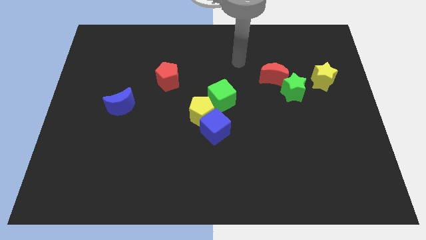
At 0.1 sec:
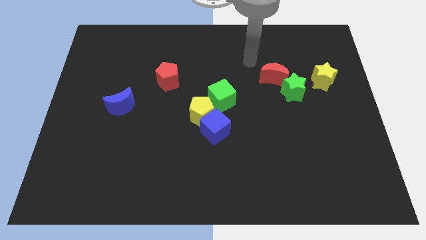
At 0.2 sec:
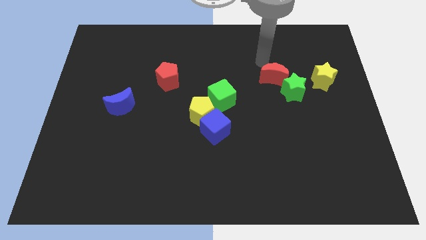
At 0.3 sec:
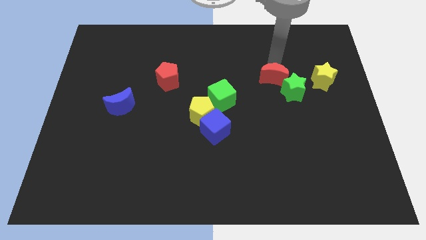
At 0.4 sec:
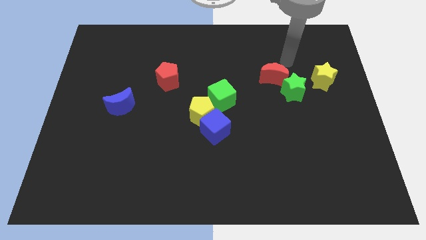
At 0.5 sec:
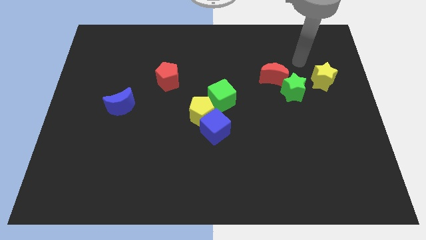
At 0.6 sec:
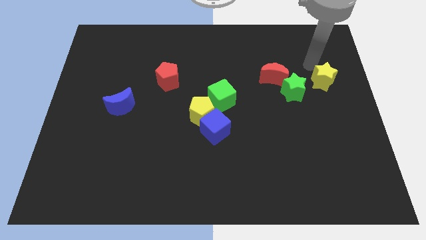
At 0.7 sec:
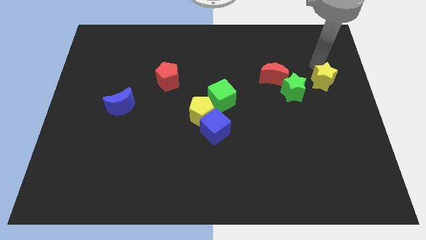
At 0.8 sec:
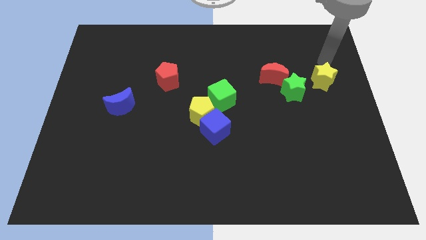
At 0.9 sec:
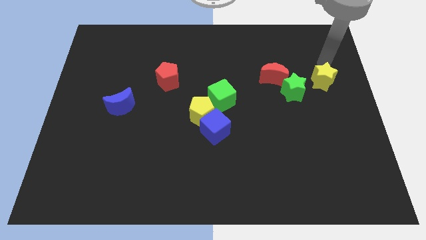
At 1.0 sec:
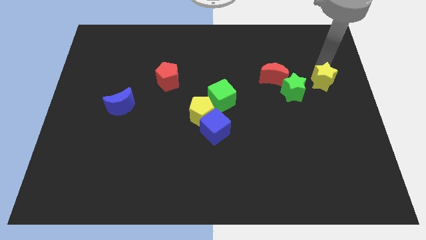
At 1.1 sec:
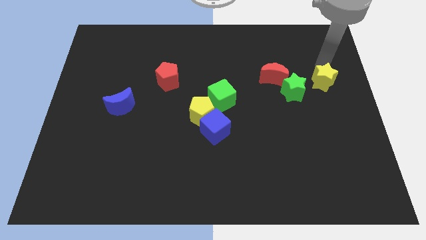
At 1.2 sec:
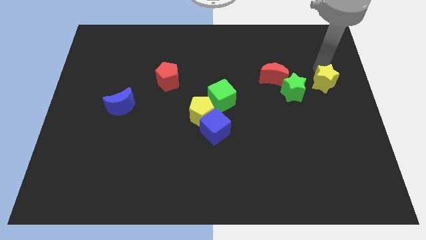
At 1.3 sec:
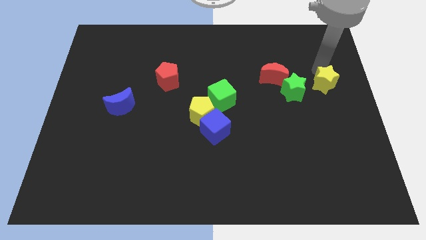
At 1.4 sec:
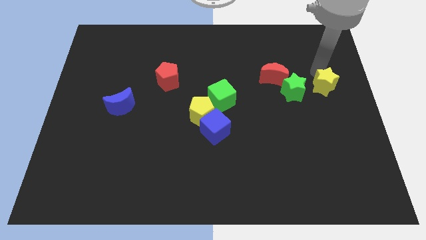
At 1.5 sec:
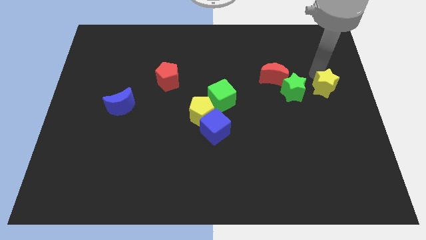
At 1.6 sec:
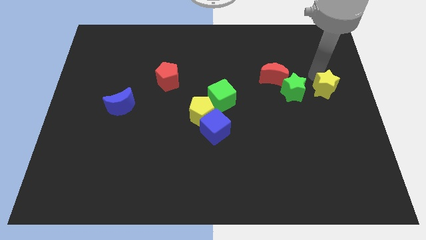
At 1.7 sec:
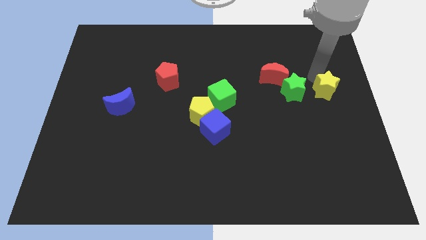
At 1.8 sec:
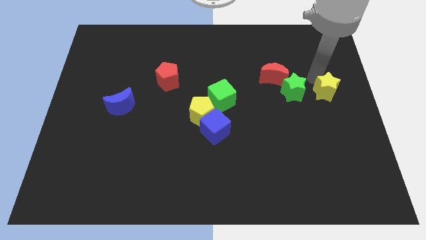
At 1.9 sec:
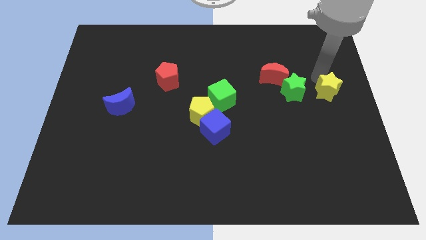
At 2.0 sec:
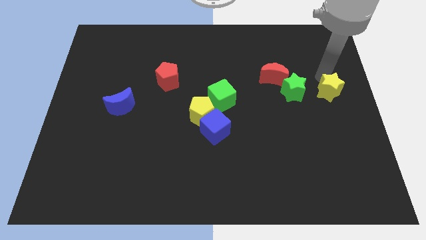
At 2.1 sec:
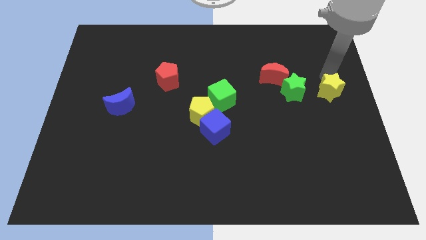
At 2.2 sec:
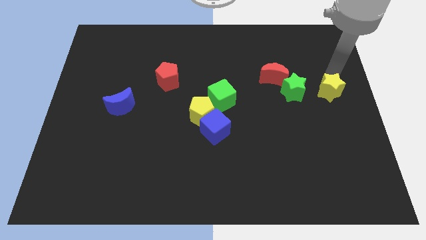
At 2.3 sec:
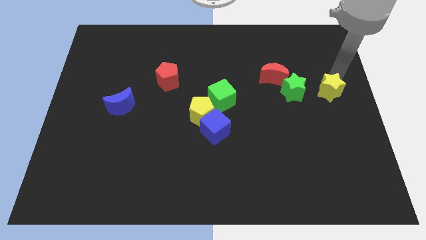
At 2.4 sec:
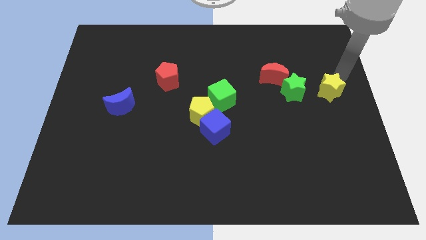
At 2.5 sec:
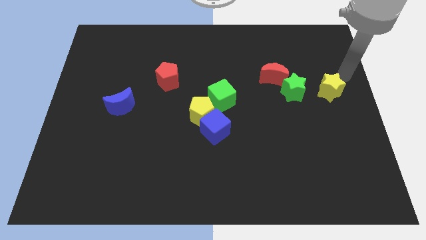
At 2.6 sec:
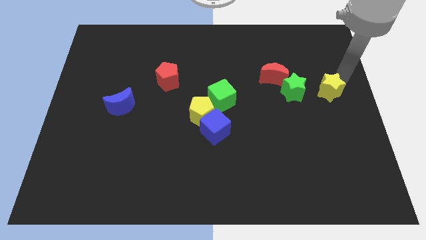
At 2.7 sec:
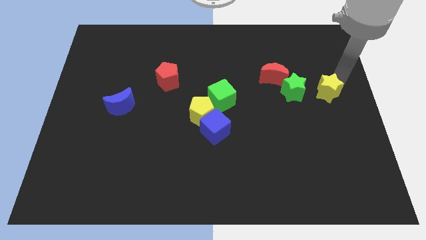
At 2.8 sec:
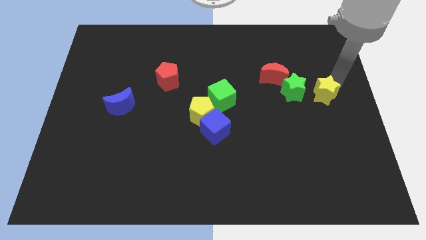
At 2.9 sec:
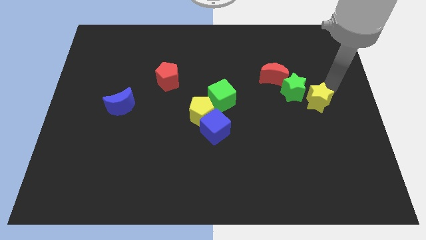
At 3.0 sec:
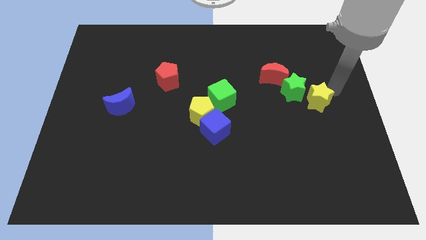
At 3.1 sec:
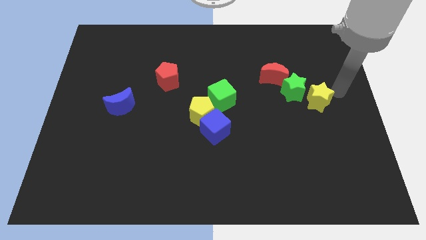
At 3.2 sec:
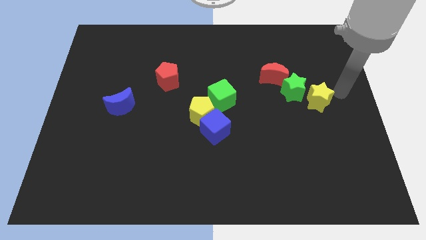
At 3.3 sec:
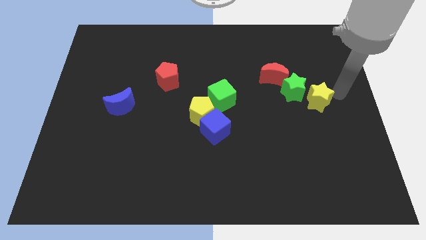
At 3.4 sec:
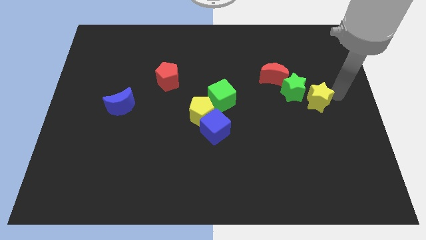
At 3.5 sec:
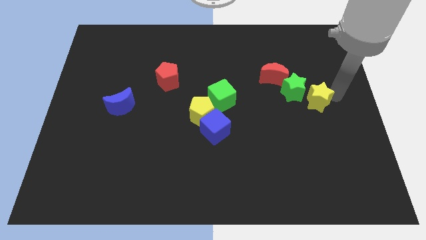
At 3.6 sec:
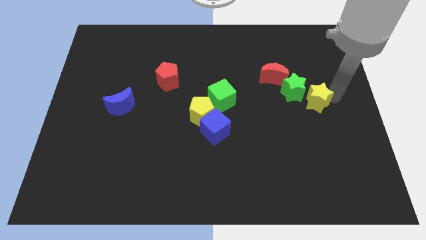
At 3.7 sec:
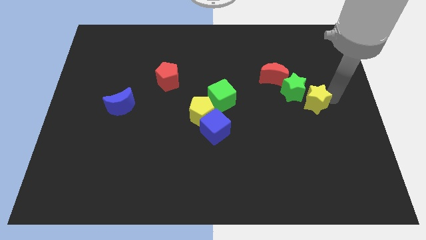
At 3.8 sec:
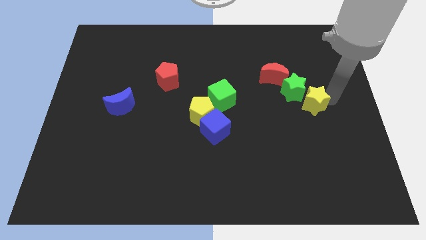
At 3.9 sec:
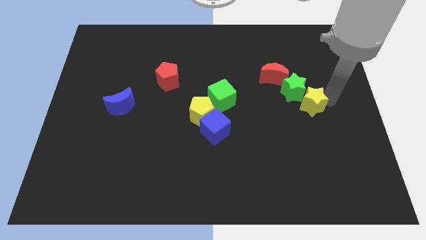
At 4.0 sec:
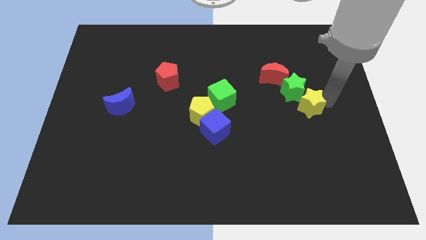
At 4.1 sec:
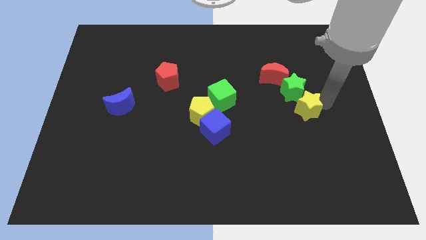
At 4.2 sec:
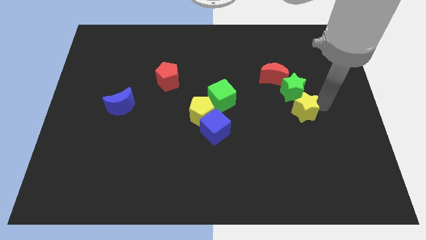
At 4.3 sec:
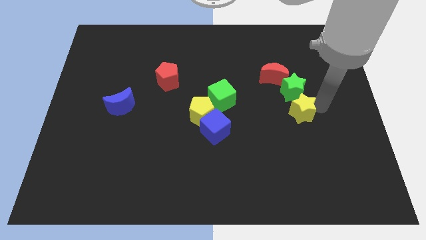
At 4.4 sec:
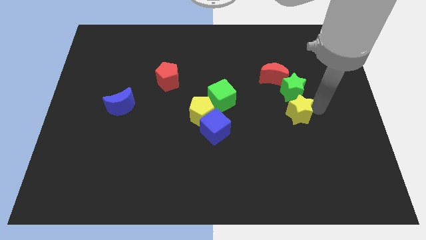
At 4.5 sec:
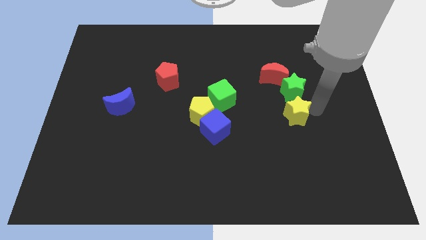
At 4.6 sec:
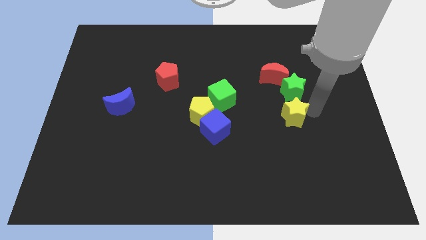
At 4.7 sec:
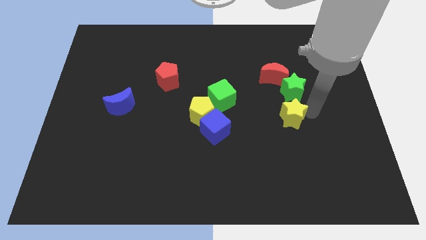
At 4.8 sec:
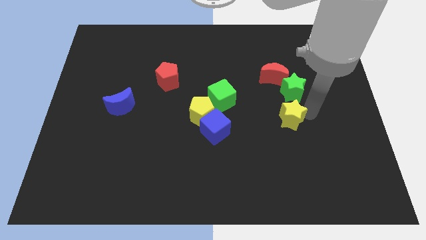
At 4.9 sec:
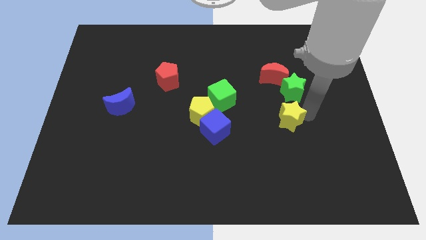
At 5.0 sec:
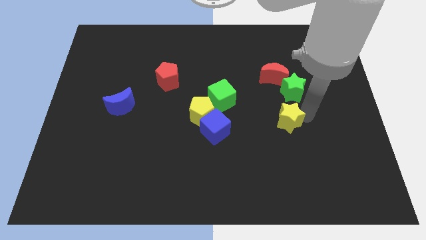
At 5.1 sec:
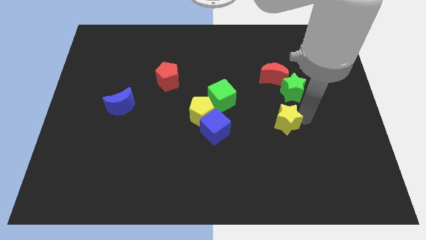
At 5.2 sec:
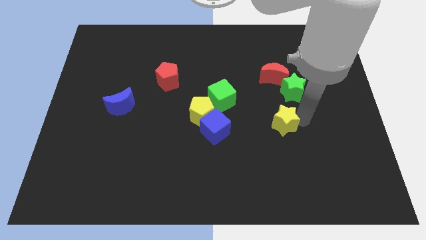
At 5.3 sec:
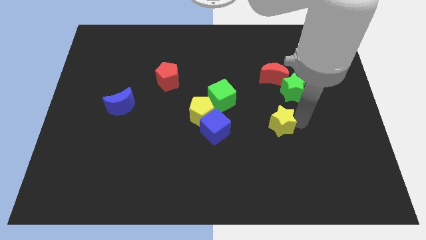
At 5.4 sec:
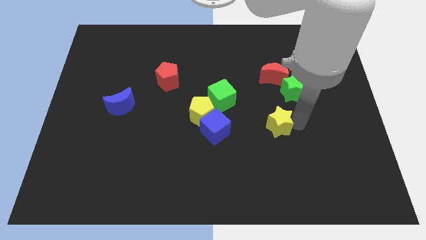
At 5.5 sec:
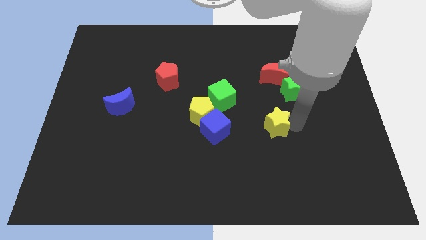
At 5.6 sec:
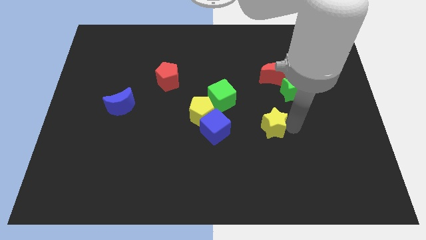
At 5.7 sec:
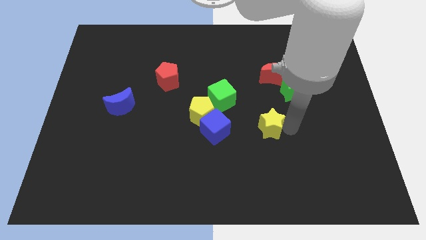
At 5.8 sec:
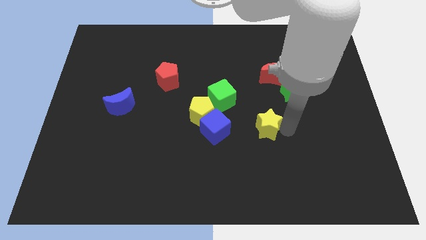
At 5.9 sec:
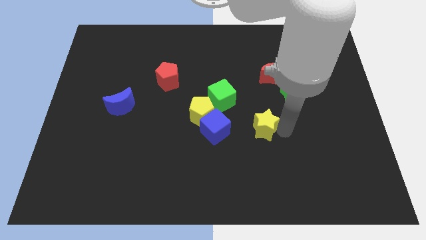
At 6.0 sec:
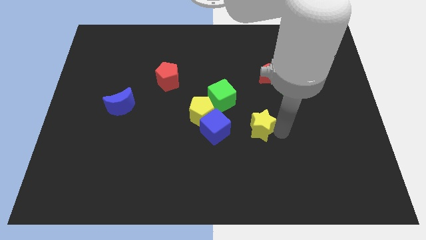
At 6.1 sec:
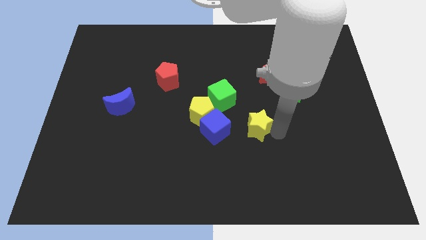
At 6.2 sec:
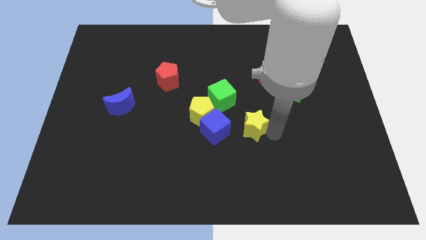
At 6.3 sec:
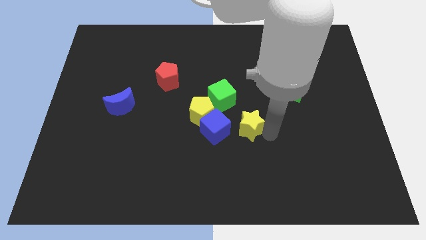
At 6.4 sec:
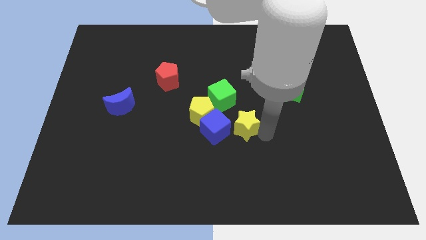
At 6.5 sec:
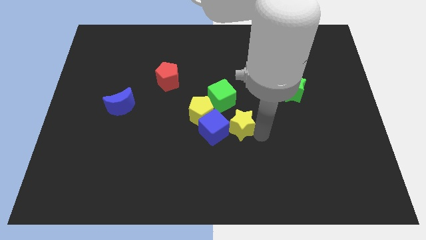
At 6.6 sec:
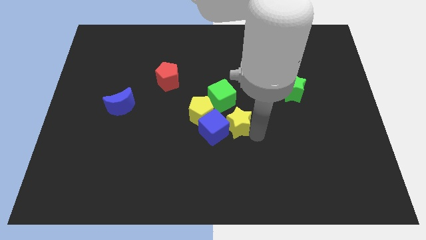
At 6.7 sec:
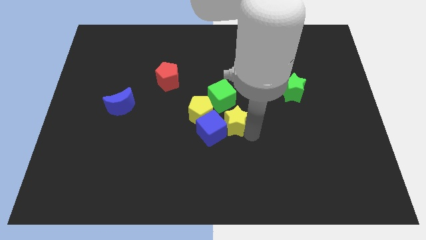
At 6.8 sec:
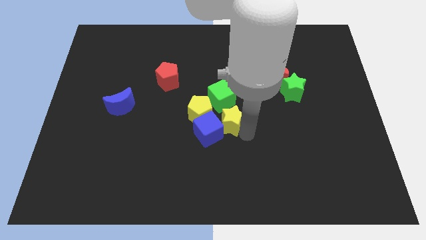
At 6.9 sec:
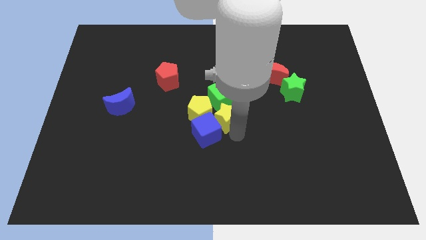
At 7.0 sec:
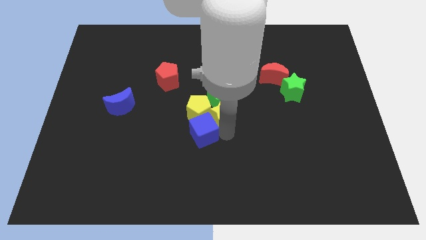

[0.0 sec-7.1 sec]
put the yellow star close to the green cube
